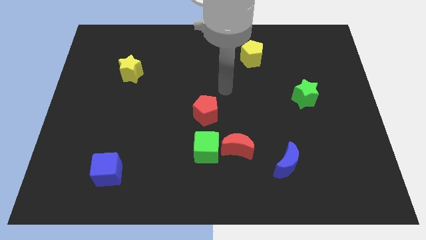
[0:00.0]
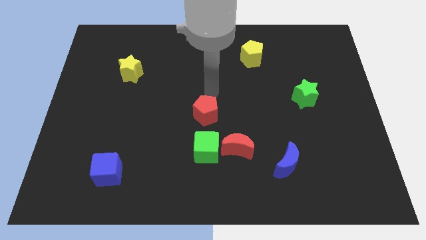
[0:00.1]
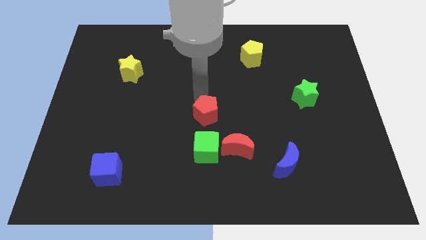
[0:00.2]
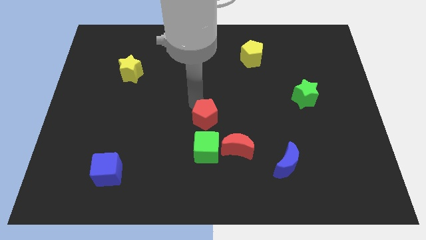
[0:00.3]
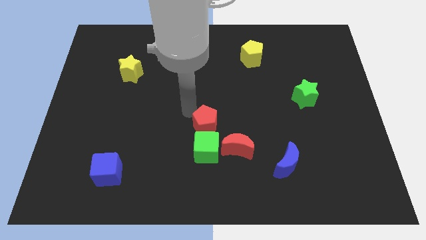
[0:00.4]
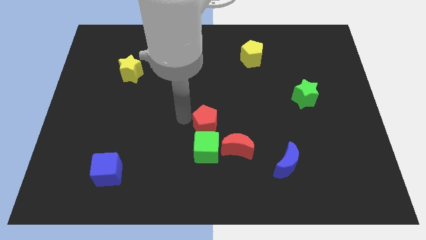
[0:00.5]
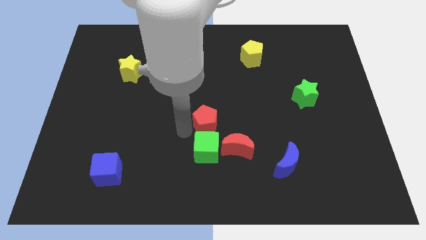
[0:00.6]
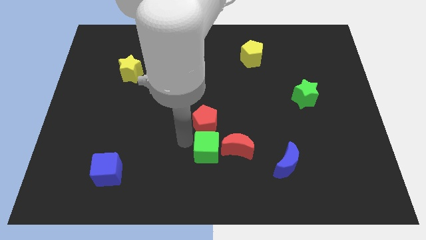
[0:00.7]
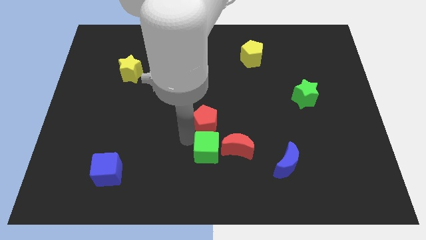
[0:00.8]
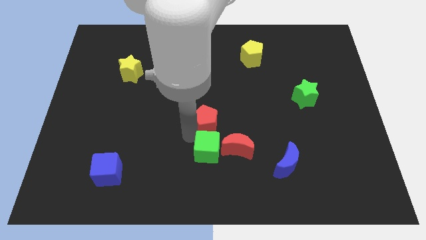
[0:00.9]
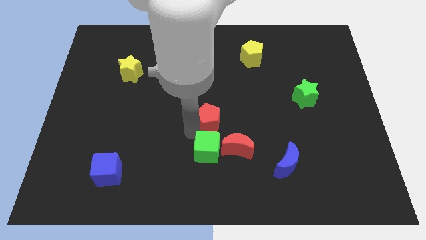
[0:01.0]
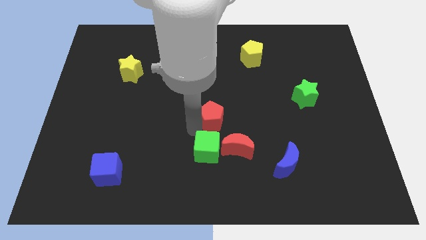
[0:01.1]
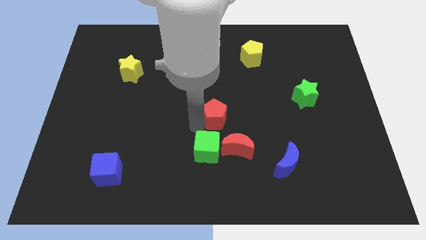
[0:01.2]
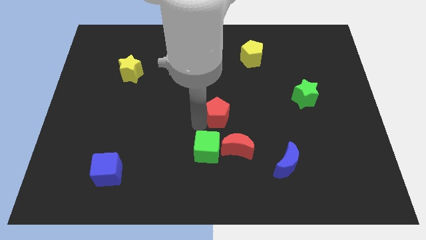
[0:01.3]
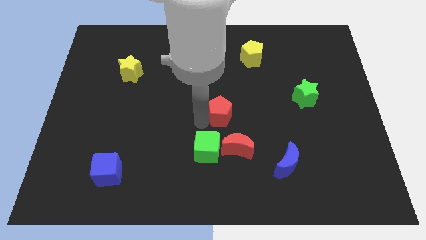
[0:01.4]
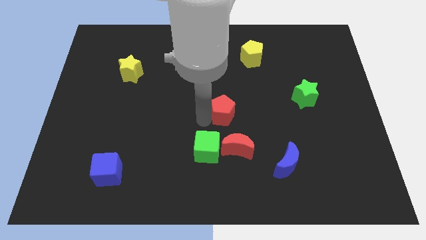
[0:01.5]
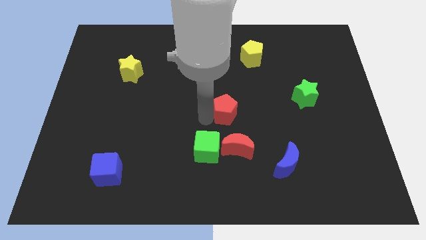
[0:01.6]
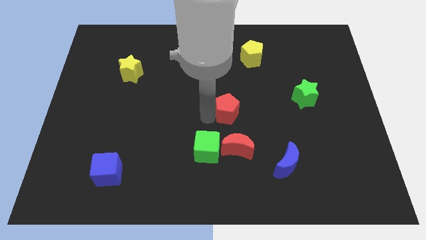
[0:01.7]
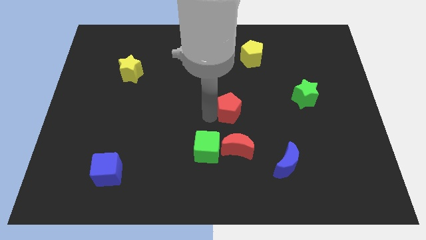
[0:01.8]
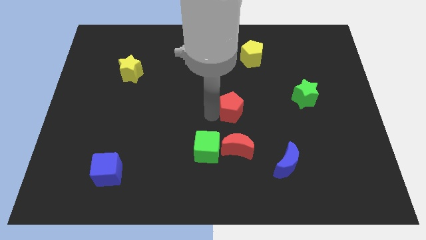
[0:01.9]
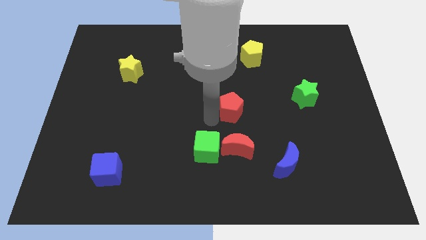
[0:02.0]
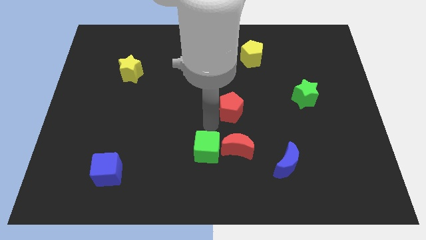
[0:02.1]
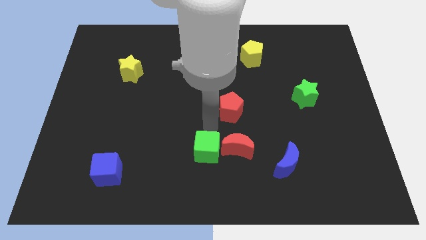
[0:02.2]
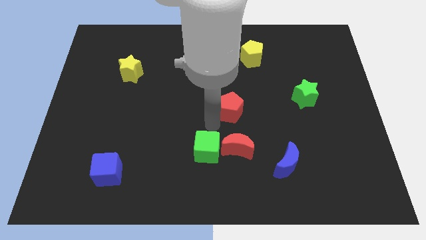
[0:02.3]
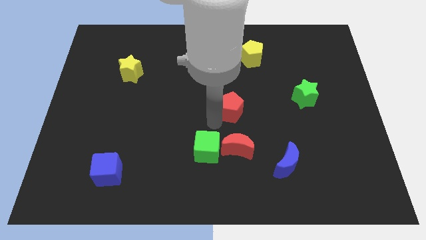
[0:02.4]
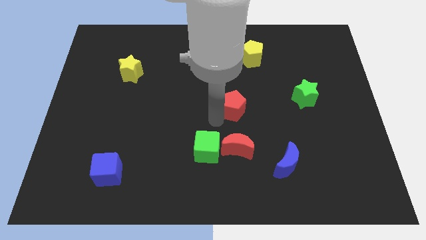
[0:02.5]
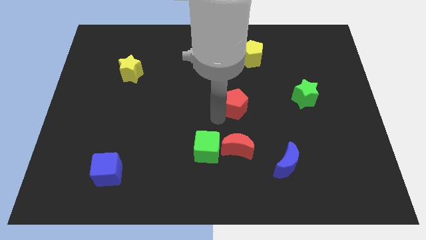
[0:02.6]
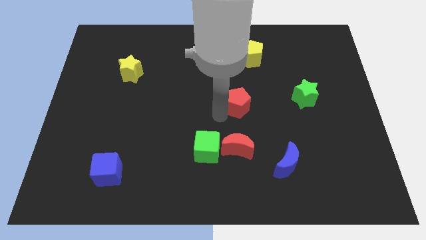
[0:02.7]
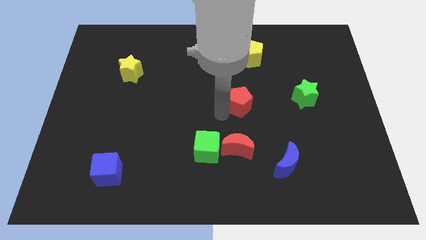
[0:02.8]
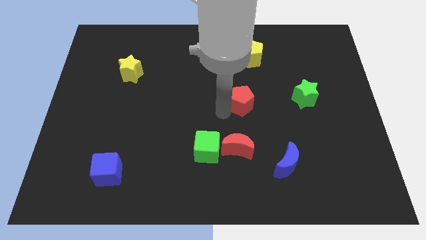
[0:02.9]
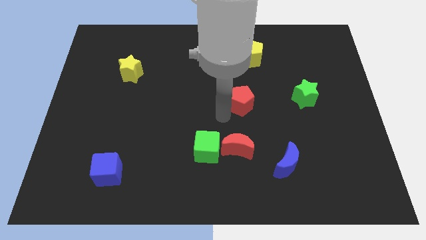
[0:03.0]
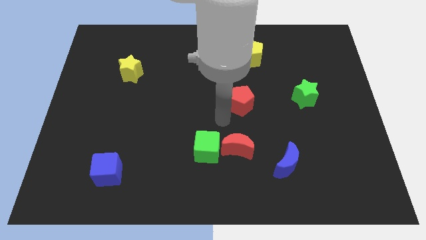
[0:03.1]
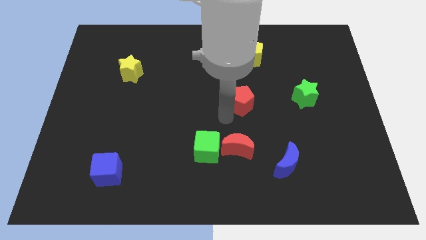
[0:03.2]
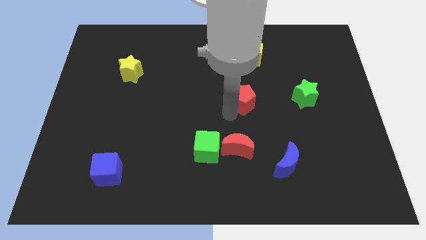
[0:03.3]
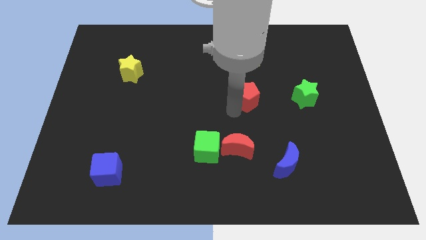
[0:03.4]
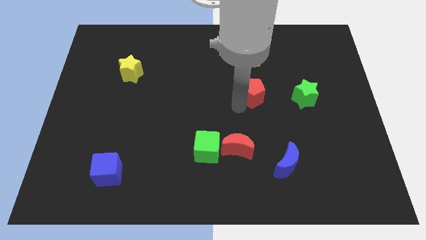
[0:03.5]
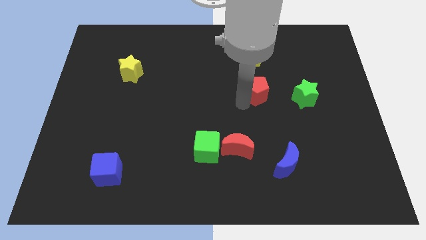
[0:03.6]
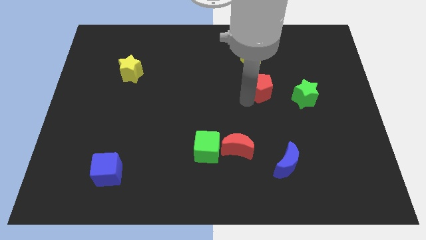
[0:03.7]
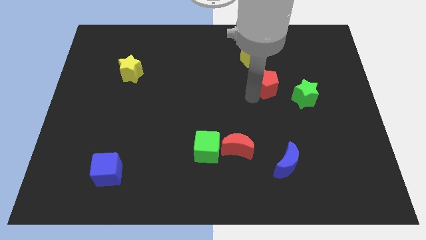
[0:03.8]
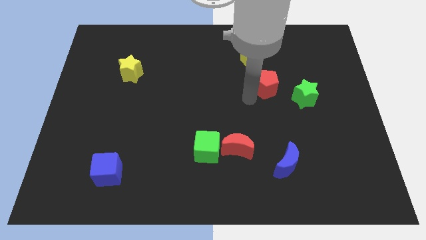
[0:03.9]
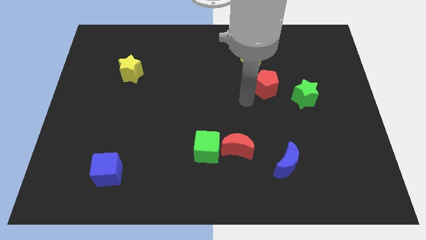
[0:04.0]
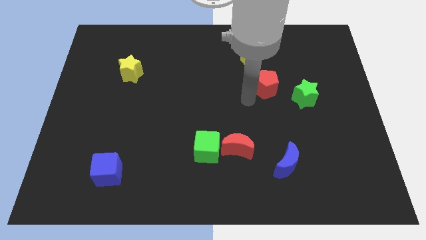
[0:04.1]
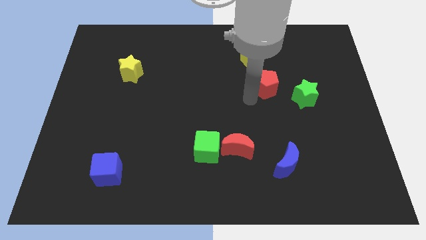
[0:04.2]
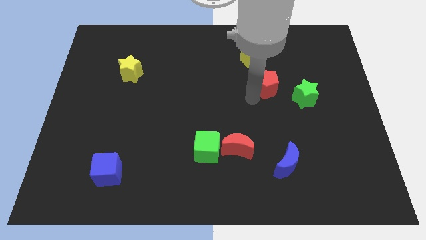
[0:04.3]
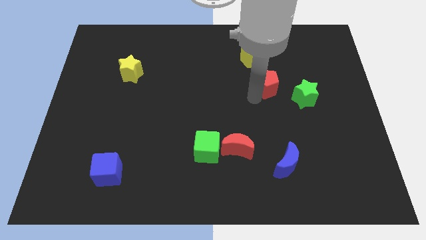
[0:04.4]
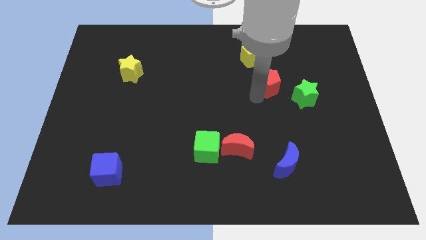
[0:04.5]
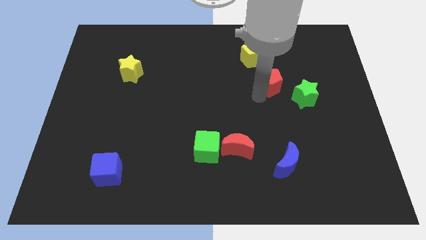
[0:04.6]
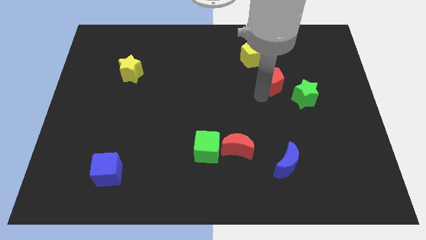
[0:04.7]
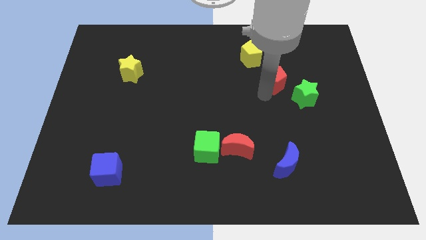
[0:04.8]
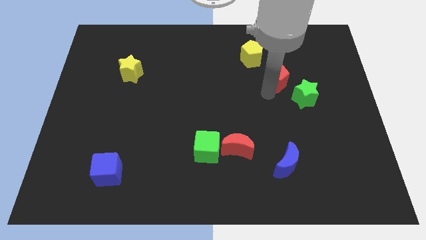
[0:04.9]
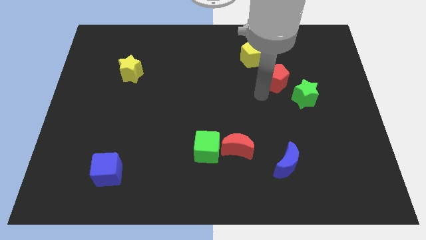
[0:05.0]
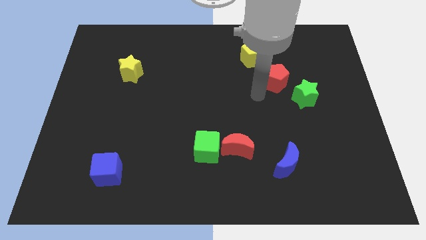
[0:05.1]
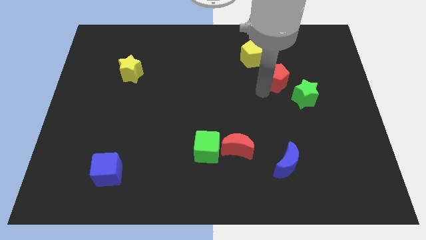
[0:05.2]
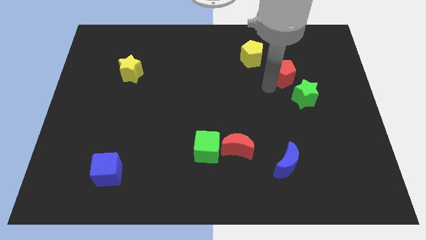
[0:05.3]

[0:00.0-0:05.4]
move the red pentagon above the green star

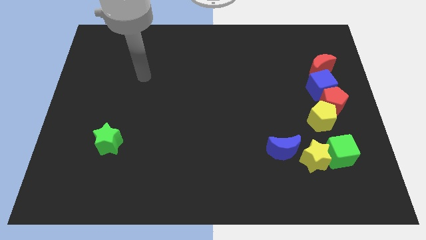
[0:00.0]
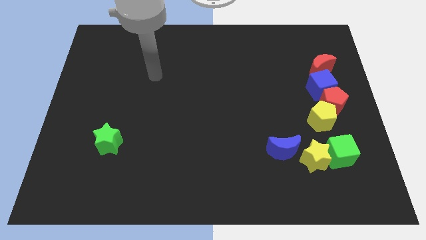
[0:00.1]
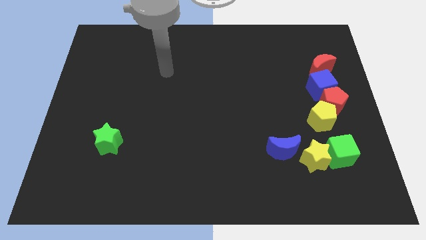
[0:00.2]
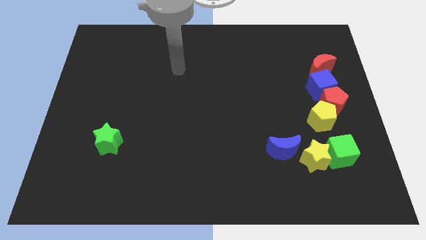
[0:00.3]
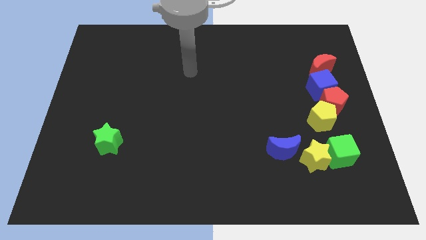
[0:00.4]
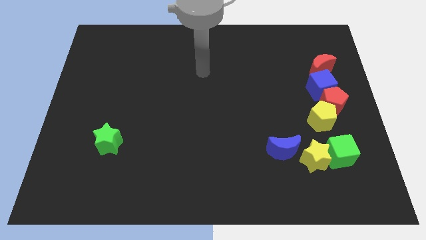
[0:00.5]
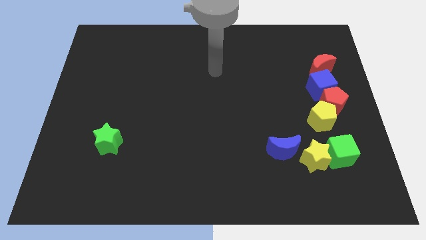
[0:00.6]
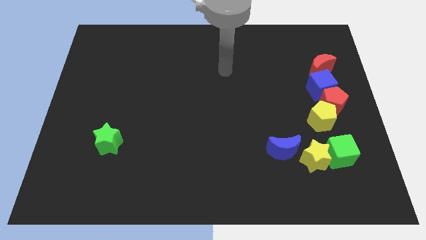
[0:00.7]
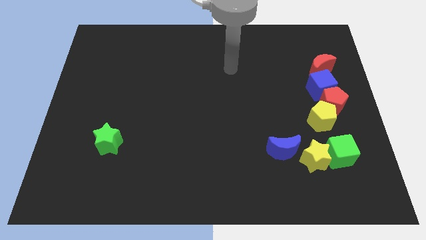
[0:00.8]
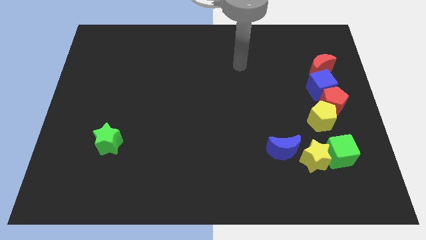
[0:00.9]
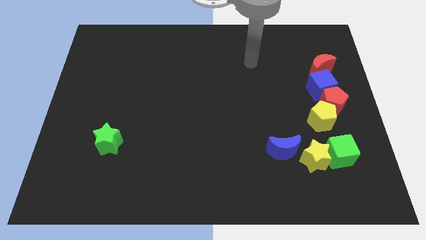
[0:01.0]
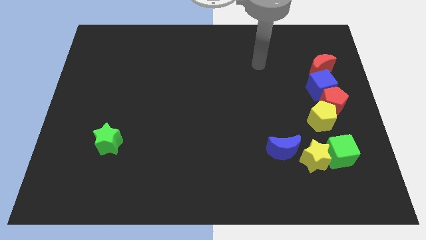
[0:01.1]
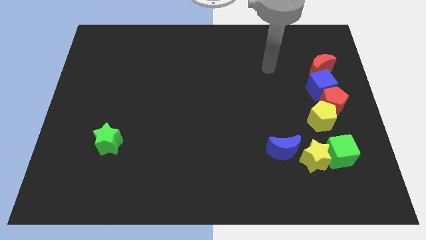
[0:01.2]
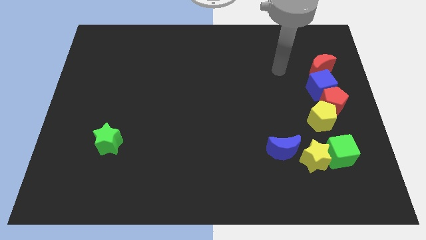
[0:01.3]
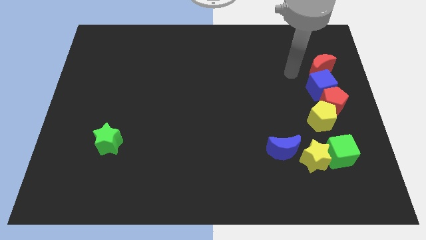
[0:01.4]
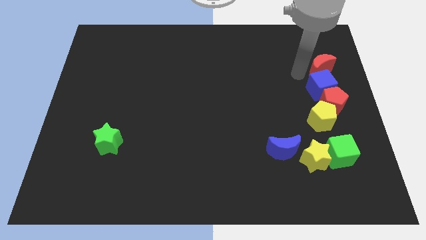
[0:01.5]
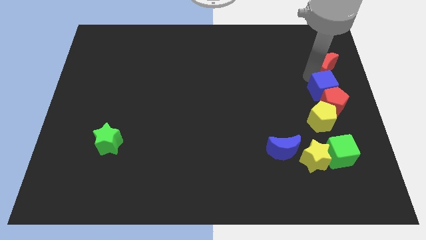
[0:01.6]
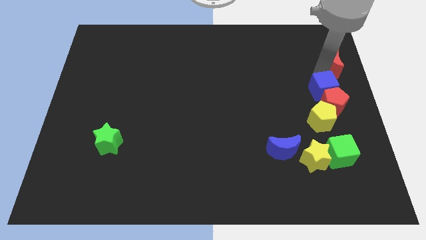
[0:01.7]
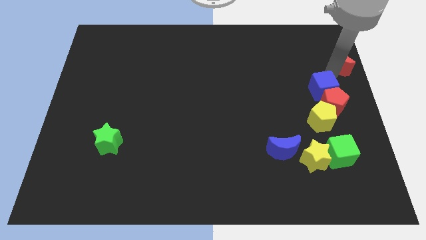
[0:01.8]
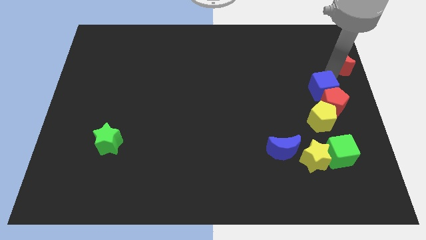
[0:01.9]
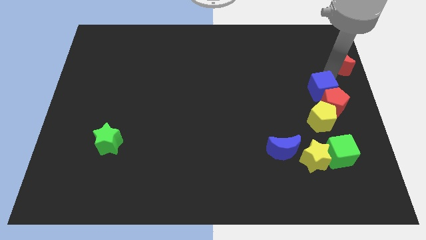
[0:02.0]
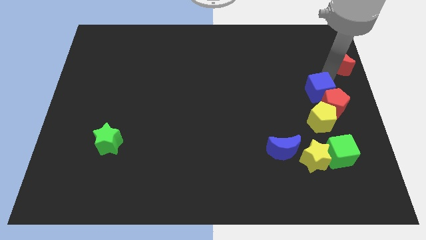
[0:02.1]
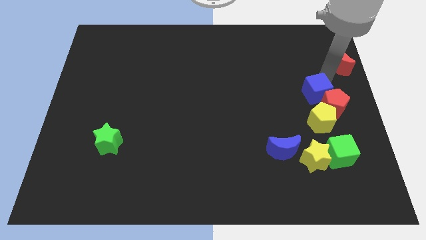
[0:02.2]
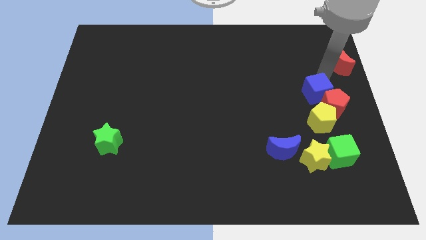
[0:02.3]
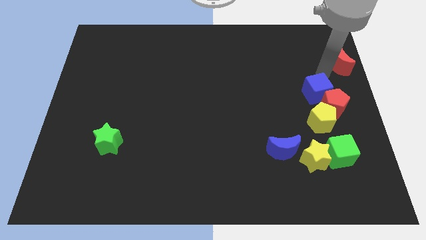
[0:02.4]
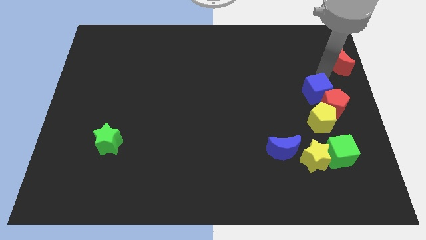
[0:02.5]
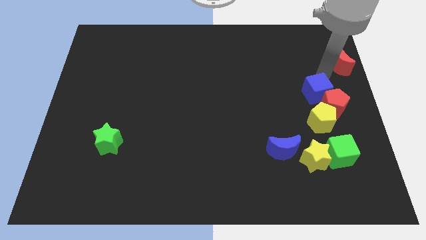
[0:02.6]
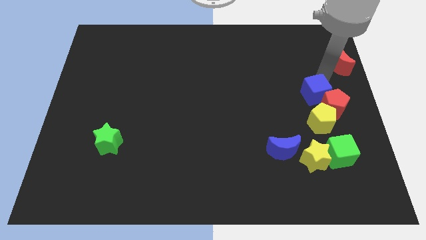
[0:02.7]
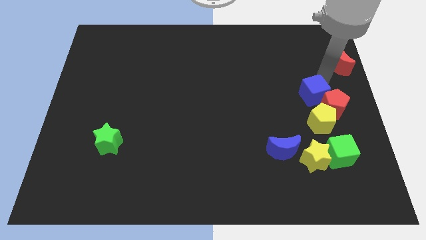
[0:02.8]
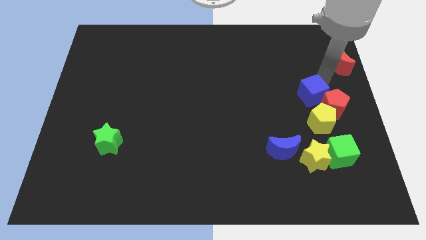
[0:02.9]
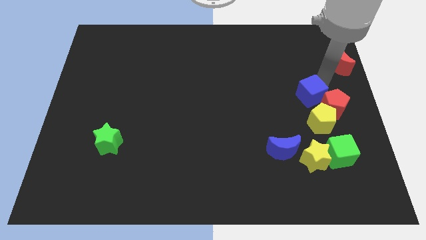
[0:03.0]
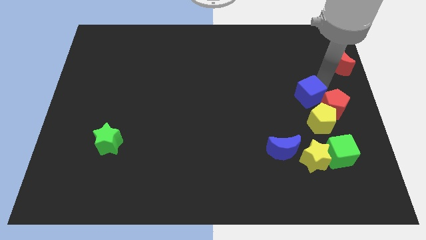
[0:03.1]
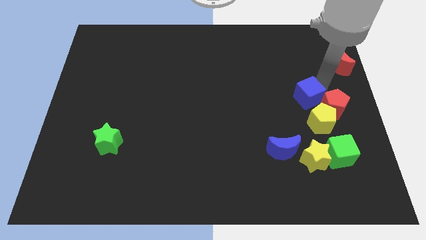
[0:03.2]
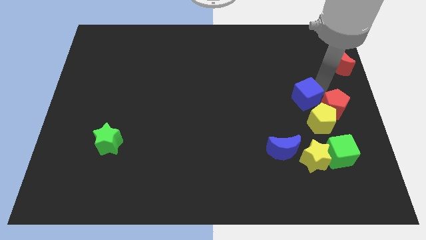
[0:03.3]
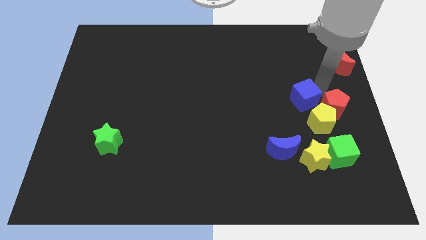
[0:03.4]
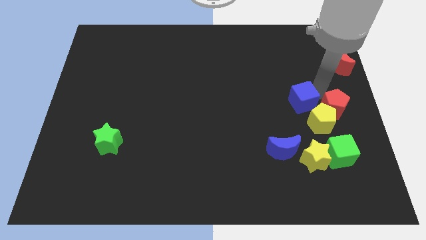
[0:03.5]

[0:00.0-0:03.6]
move the blue cube to the top of the yellow star
